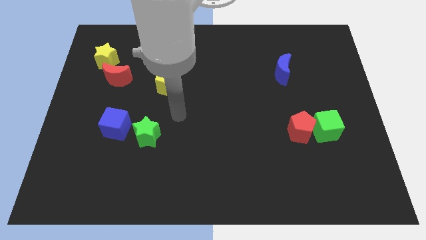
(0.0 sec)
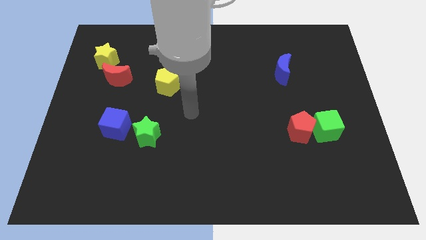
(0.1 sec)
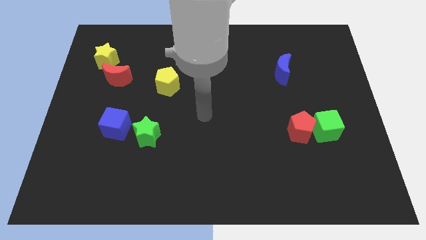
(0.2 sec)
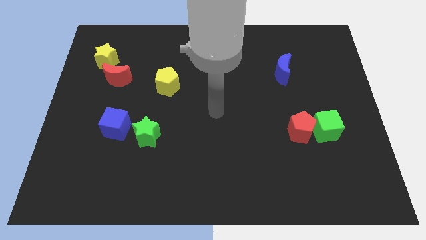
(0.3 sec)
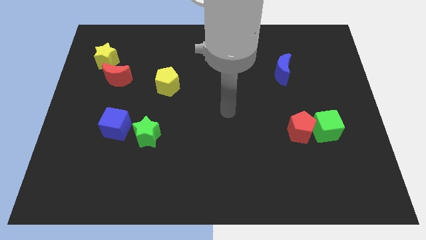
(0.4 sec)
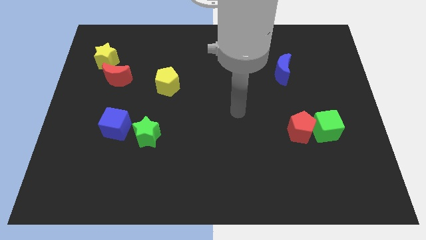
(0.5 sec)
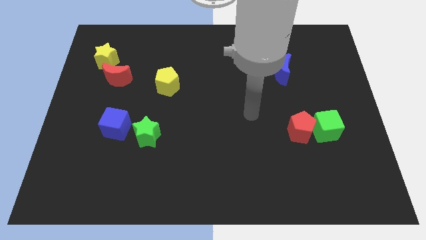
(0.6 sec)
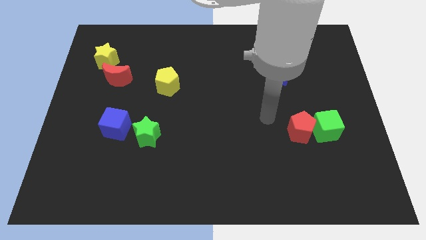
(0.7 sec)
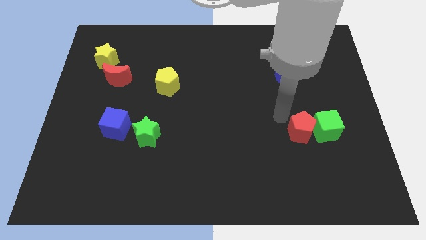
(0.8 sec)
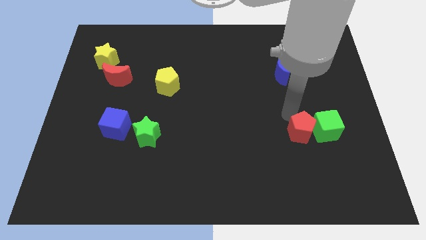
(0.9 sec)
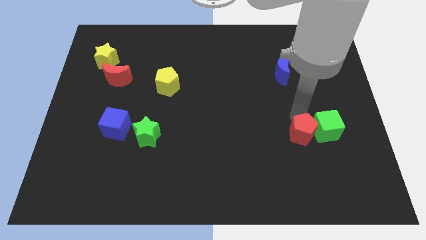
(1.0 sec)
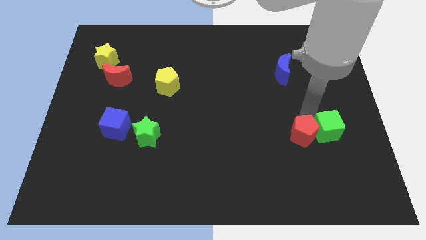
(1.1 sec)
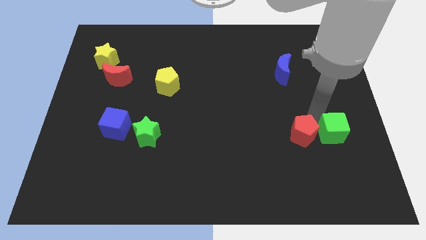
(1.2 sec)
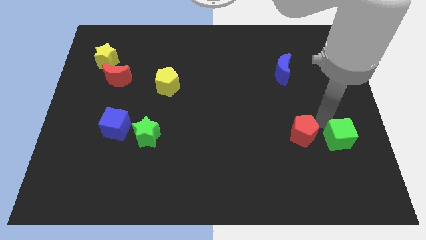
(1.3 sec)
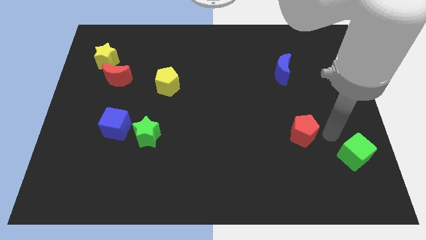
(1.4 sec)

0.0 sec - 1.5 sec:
pull the red pentagon apart from the green cube

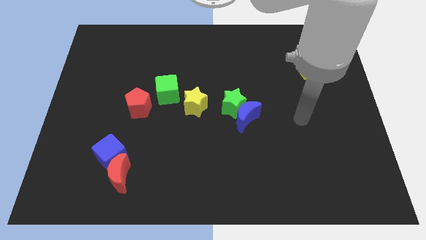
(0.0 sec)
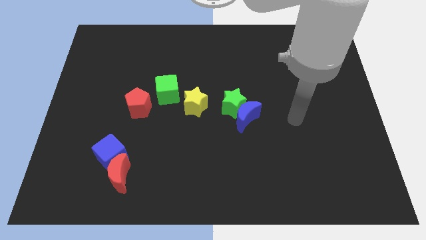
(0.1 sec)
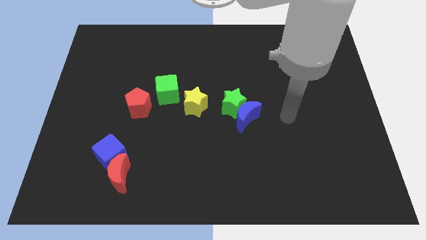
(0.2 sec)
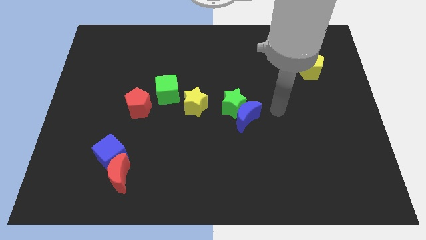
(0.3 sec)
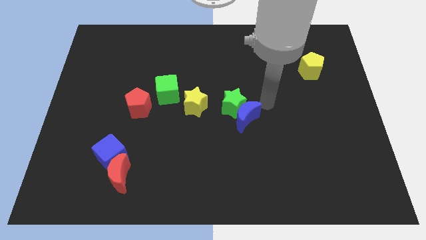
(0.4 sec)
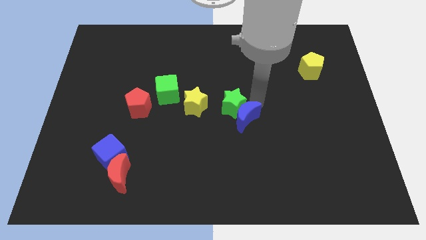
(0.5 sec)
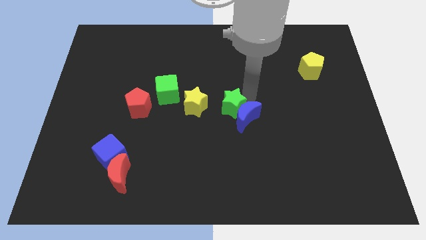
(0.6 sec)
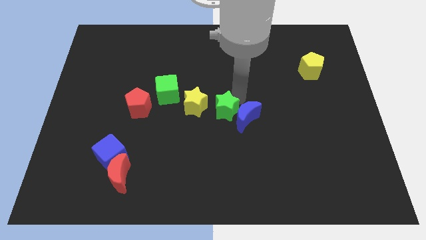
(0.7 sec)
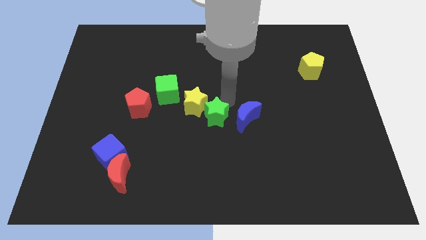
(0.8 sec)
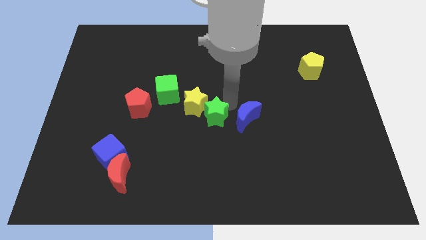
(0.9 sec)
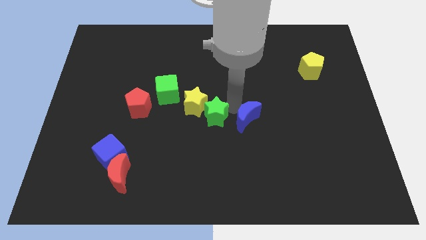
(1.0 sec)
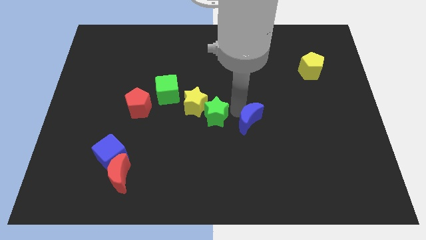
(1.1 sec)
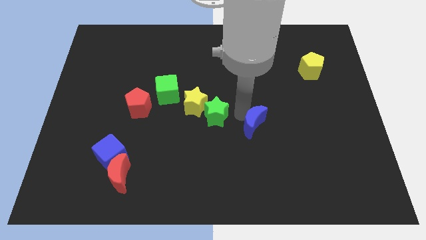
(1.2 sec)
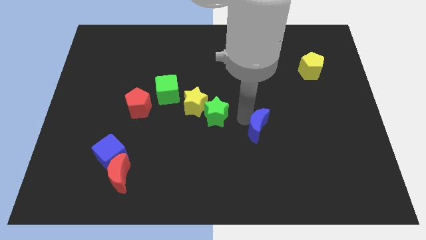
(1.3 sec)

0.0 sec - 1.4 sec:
separate the blue moon from the green star

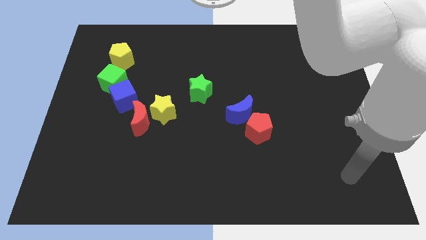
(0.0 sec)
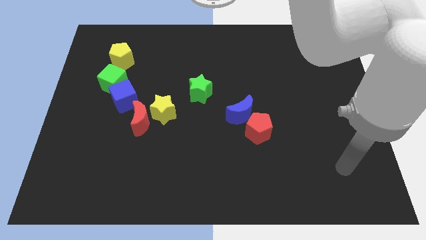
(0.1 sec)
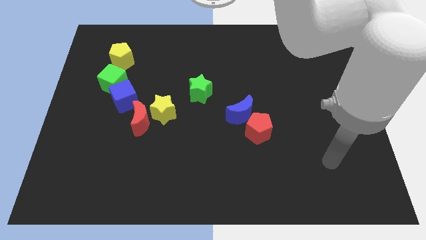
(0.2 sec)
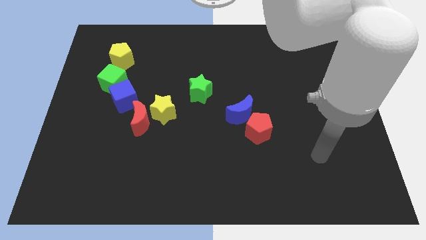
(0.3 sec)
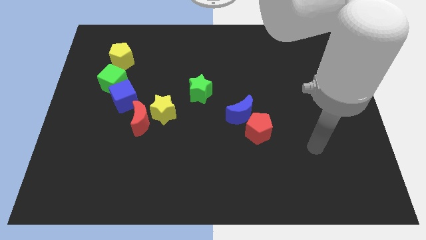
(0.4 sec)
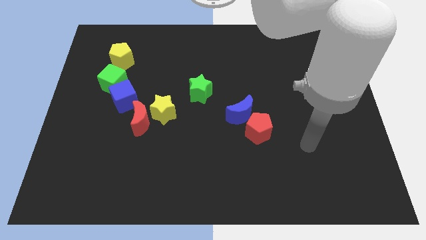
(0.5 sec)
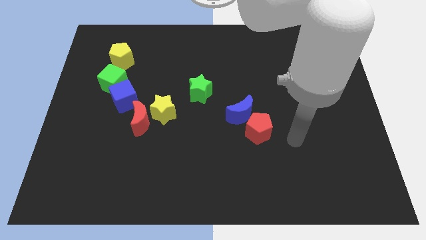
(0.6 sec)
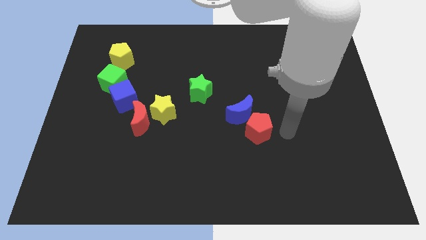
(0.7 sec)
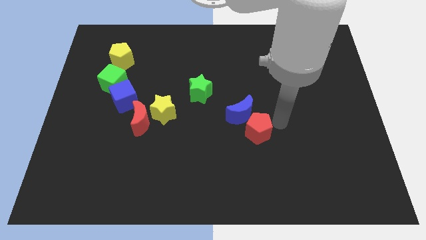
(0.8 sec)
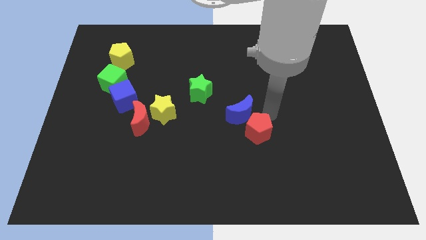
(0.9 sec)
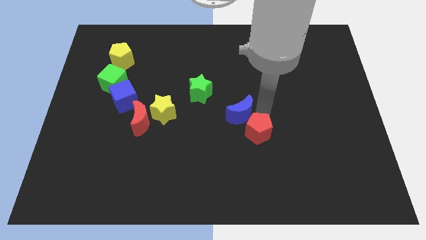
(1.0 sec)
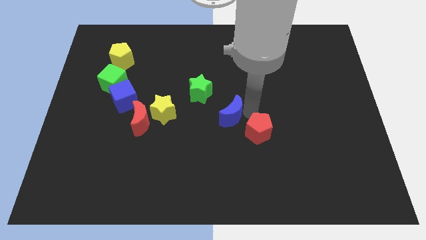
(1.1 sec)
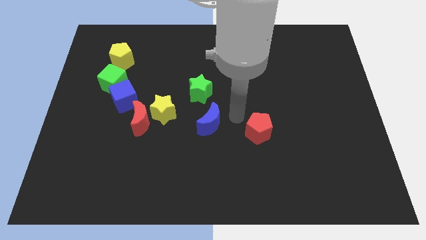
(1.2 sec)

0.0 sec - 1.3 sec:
pull the red pentagon apart from the blue moon

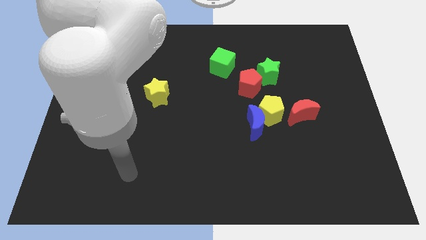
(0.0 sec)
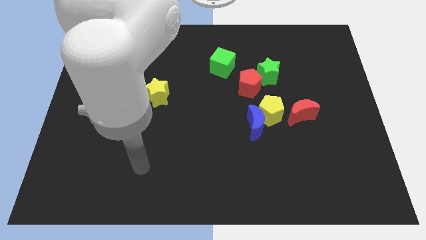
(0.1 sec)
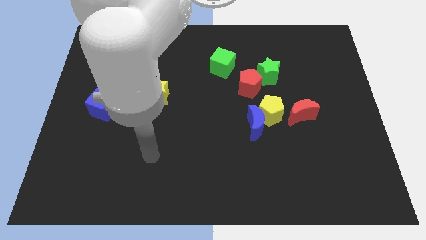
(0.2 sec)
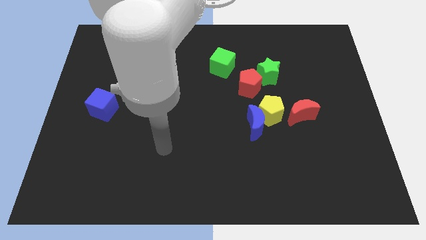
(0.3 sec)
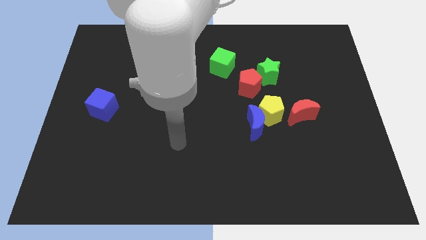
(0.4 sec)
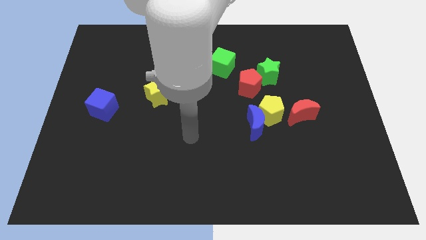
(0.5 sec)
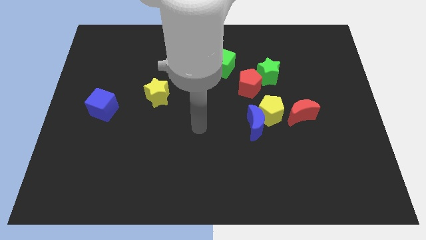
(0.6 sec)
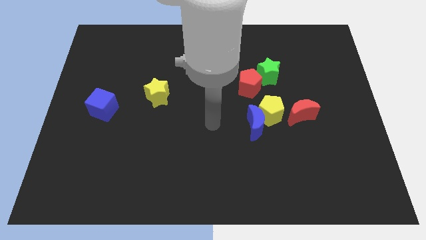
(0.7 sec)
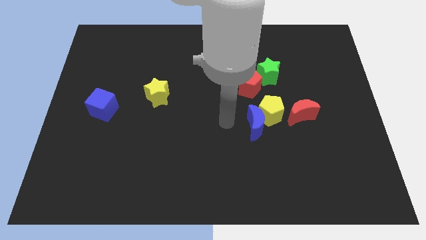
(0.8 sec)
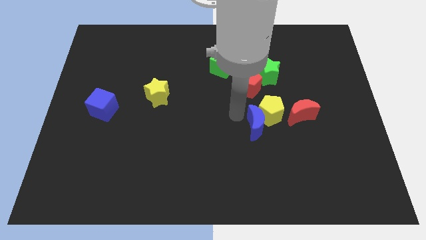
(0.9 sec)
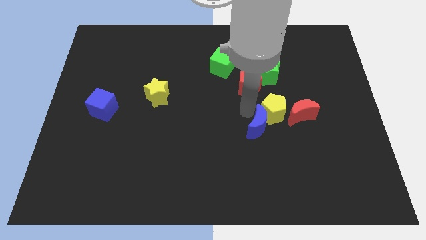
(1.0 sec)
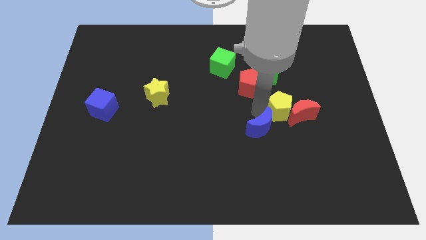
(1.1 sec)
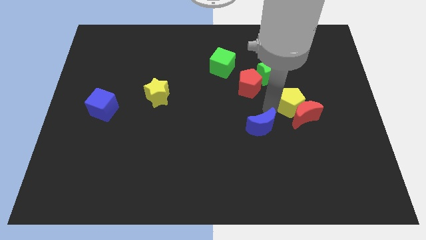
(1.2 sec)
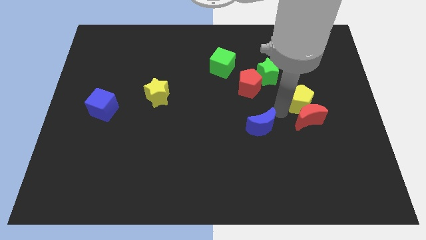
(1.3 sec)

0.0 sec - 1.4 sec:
separate the blue moon from the yellow pentagon

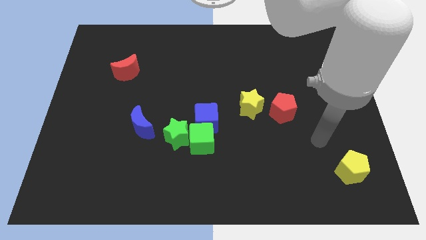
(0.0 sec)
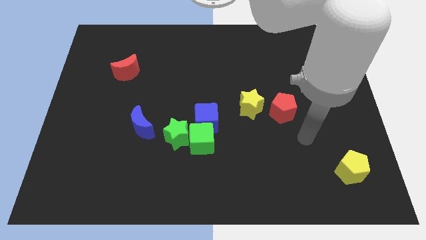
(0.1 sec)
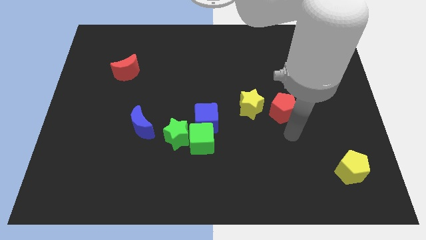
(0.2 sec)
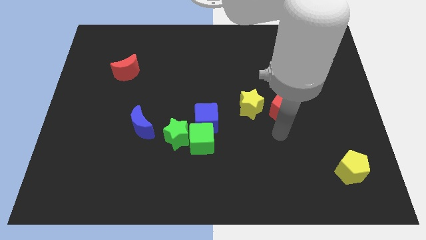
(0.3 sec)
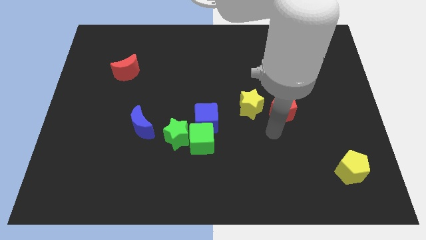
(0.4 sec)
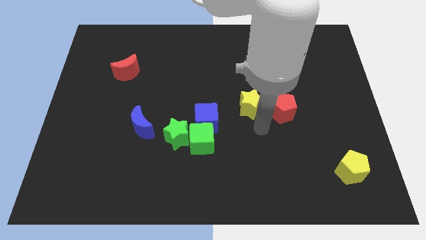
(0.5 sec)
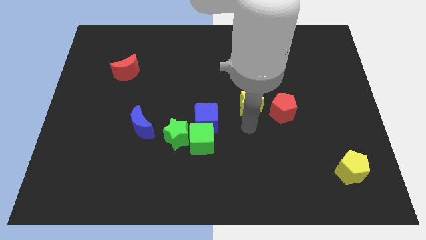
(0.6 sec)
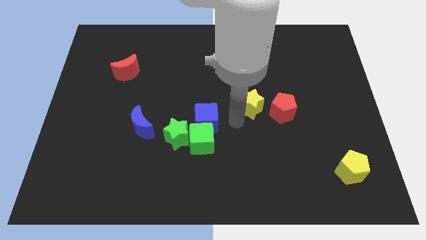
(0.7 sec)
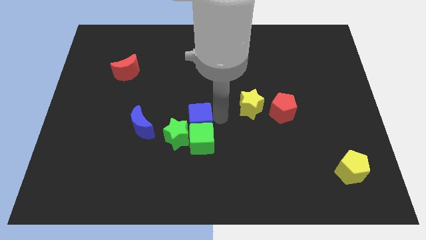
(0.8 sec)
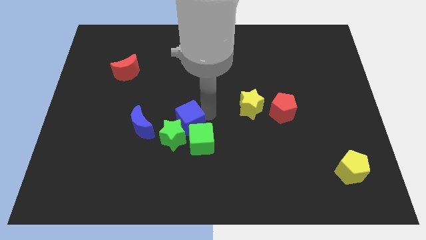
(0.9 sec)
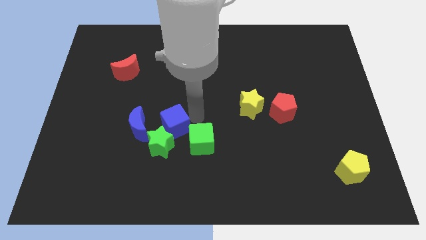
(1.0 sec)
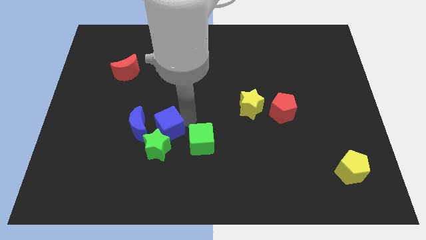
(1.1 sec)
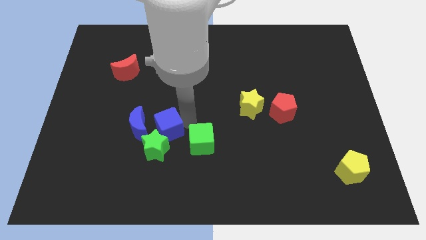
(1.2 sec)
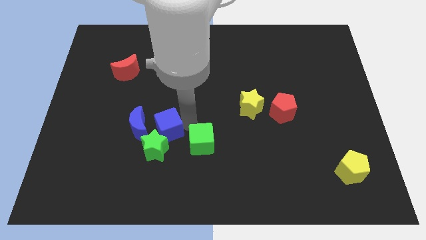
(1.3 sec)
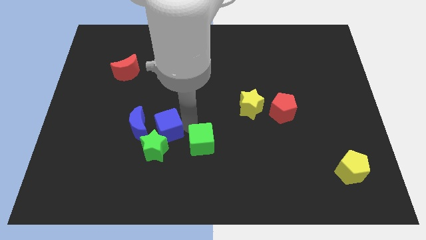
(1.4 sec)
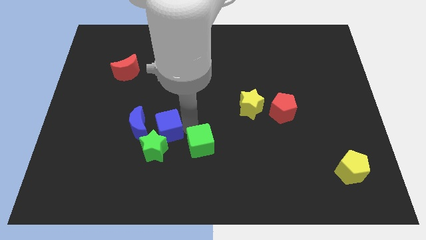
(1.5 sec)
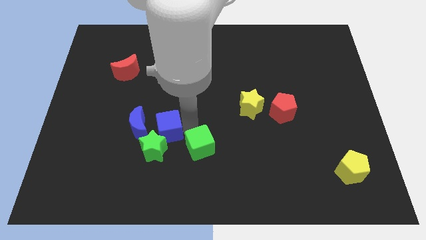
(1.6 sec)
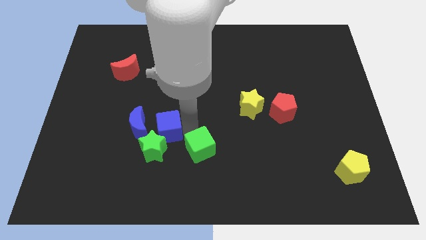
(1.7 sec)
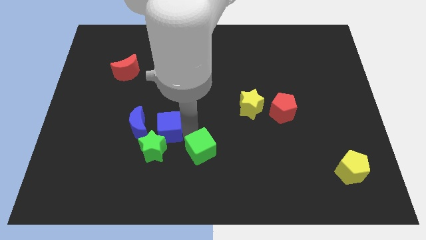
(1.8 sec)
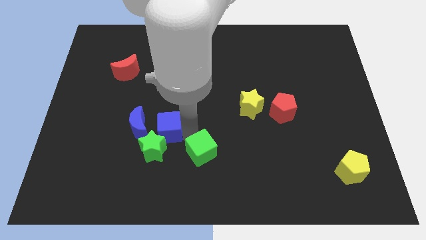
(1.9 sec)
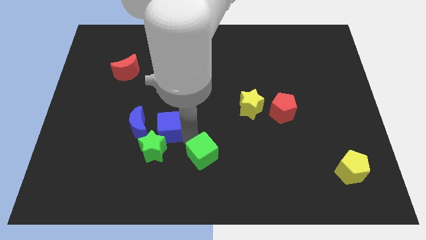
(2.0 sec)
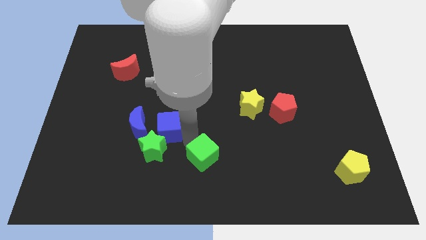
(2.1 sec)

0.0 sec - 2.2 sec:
pull the green cube apart from the blue cube and green star

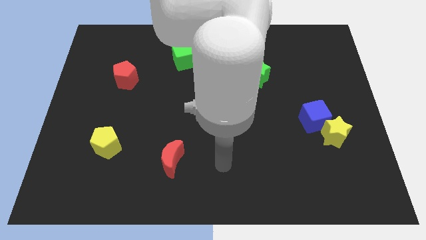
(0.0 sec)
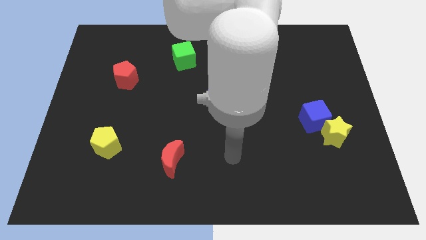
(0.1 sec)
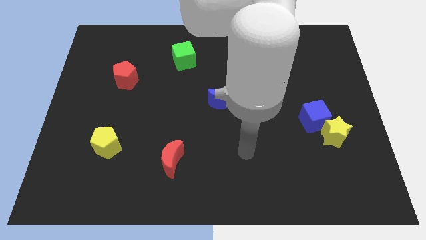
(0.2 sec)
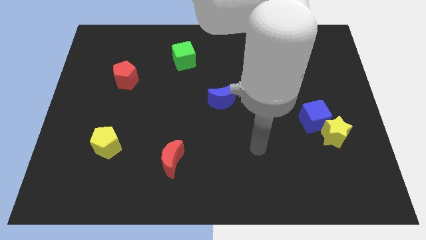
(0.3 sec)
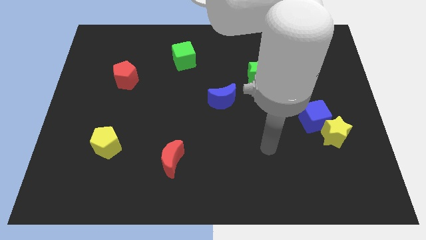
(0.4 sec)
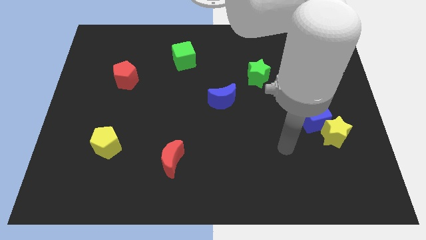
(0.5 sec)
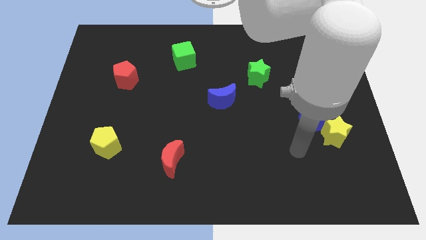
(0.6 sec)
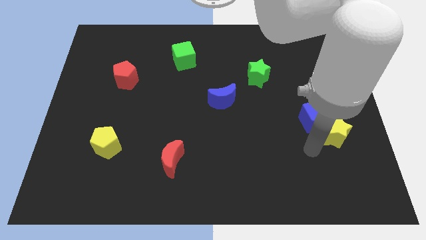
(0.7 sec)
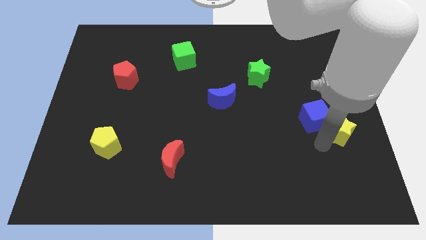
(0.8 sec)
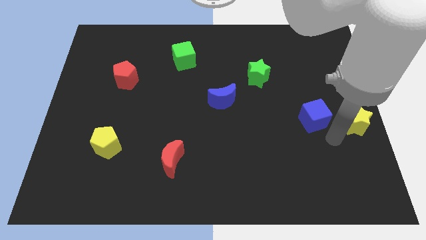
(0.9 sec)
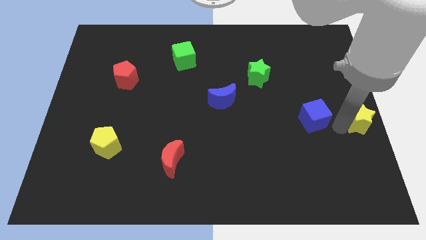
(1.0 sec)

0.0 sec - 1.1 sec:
move the blue cube away from the yellow star

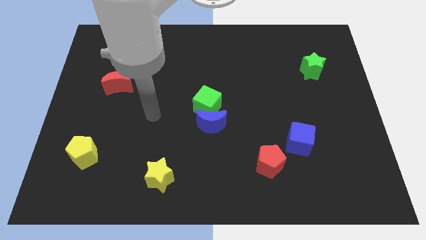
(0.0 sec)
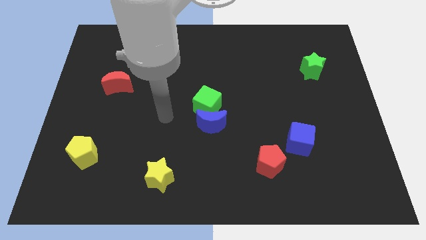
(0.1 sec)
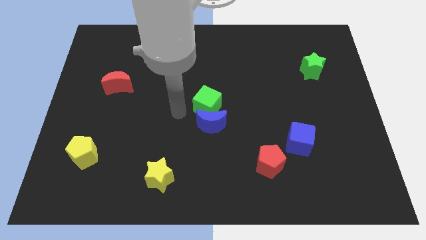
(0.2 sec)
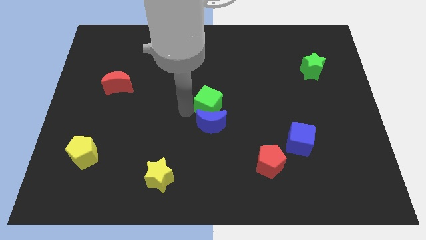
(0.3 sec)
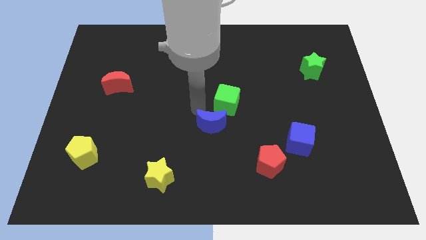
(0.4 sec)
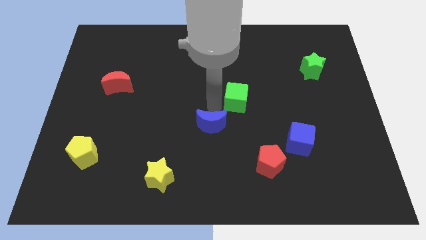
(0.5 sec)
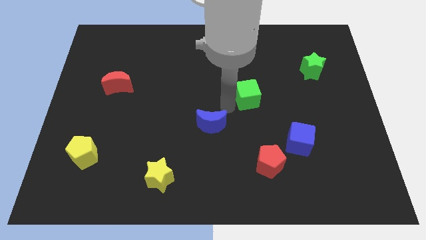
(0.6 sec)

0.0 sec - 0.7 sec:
separate the blue moon from the green cube
